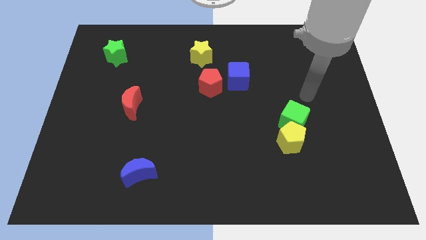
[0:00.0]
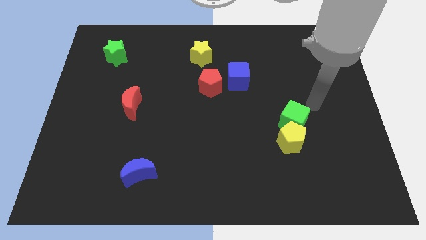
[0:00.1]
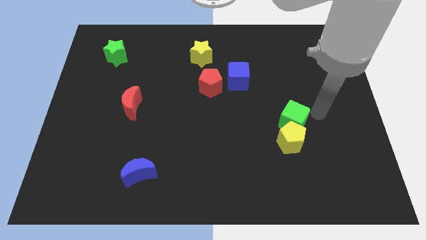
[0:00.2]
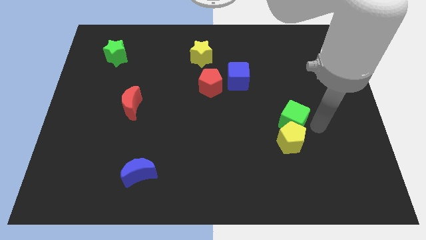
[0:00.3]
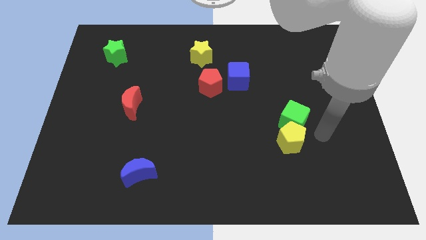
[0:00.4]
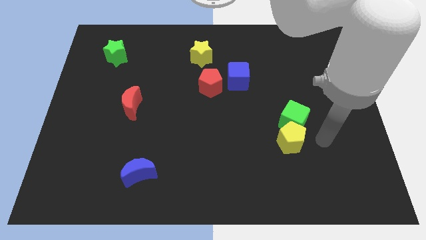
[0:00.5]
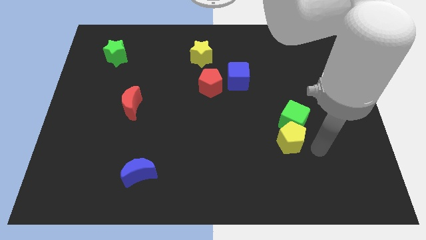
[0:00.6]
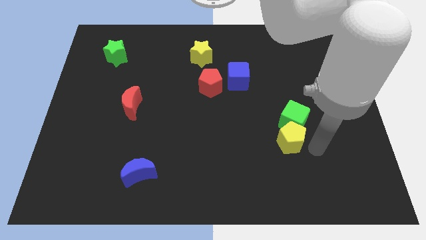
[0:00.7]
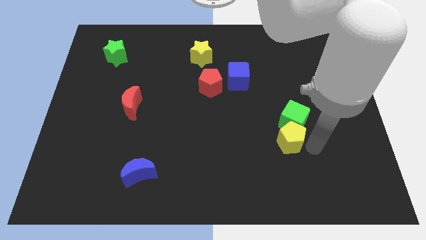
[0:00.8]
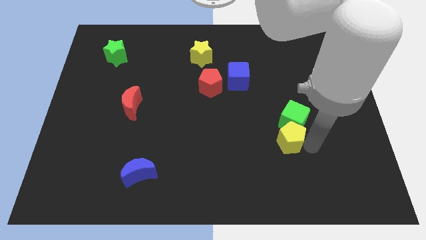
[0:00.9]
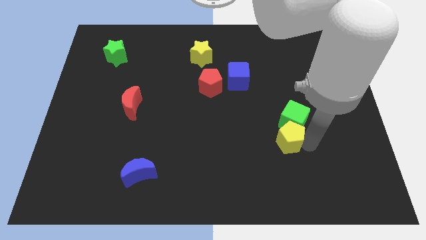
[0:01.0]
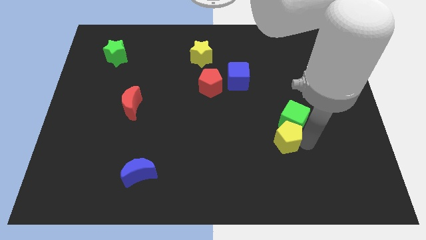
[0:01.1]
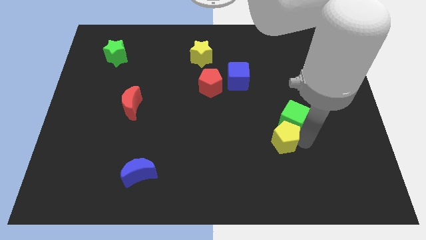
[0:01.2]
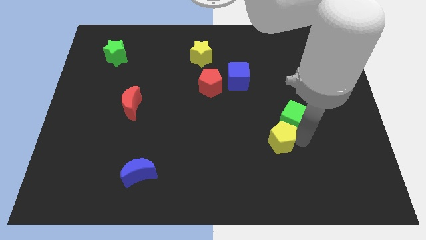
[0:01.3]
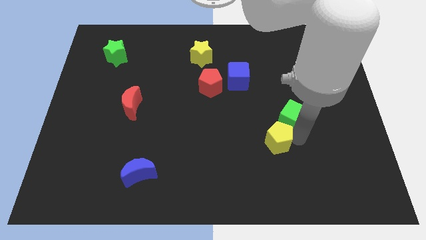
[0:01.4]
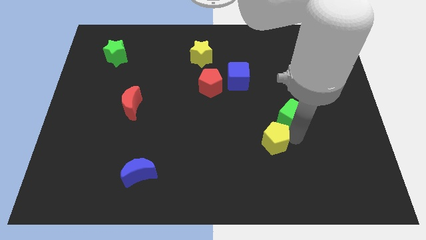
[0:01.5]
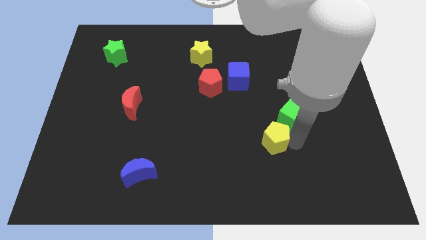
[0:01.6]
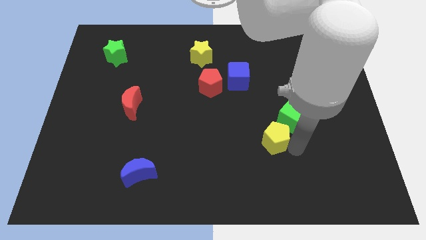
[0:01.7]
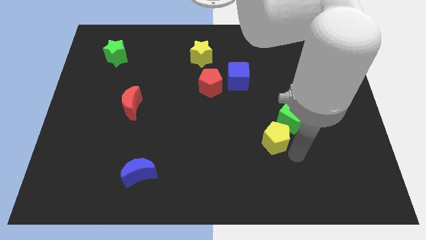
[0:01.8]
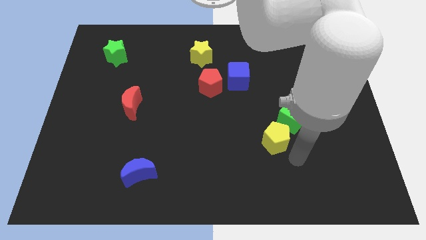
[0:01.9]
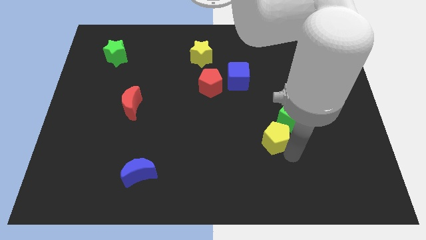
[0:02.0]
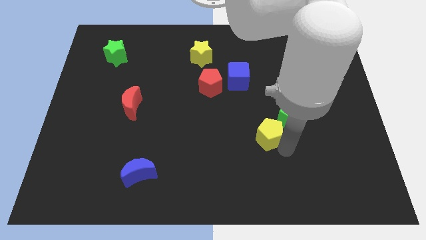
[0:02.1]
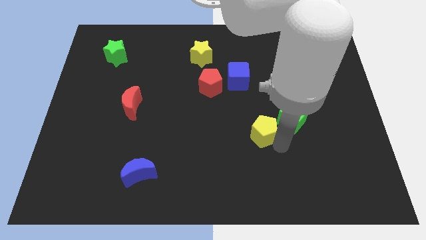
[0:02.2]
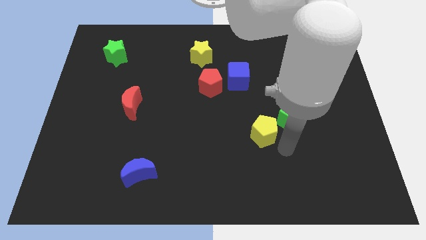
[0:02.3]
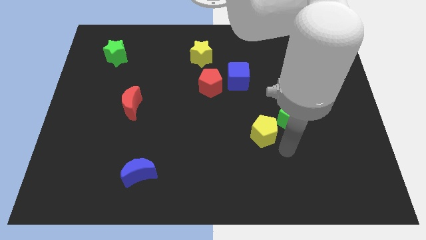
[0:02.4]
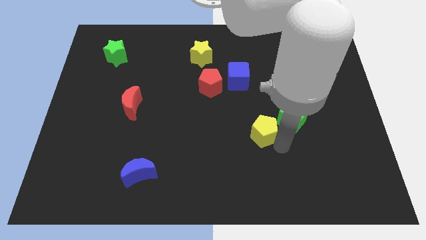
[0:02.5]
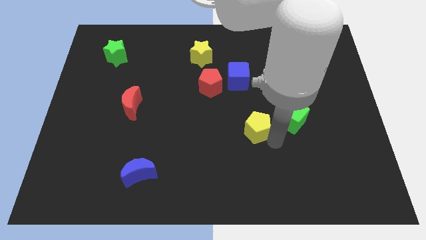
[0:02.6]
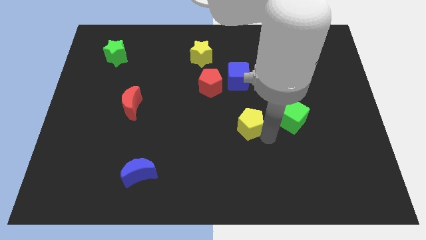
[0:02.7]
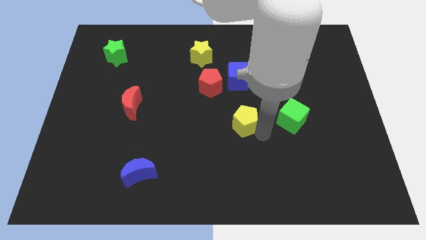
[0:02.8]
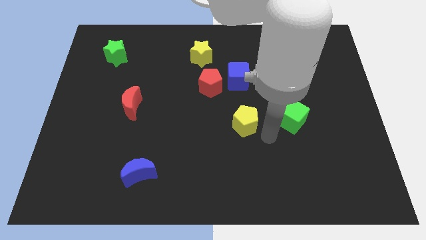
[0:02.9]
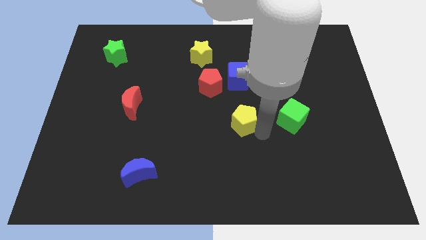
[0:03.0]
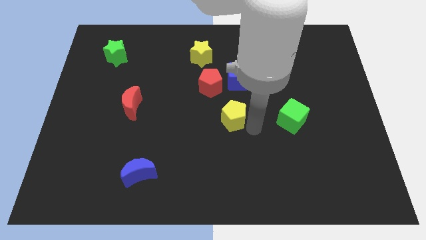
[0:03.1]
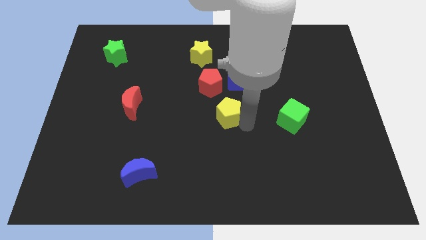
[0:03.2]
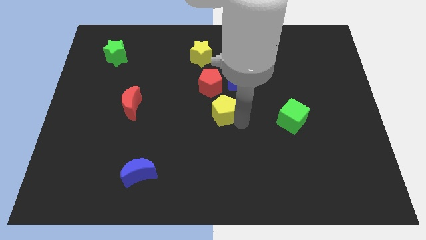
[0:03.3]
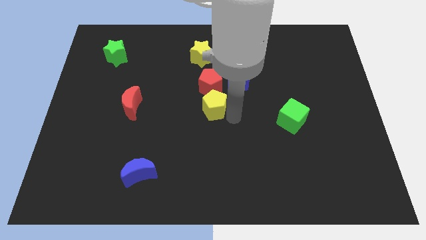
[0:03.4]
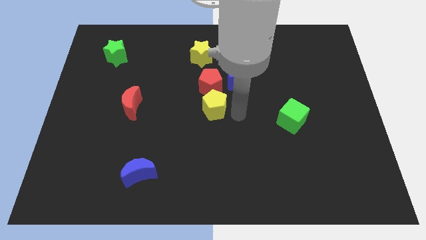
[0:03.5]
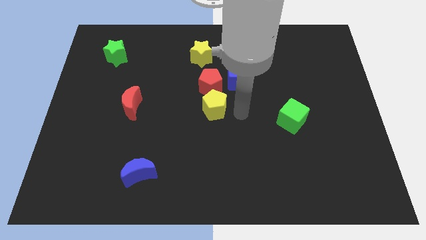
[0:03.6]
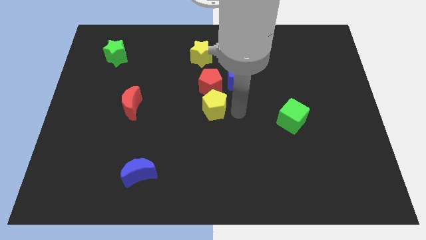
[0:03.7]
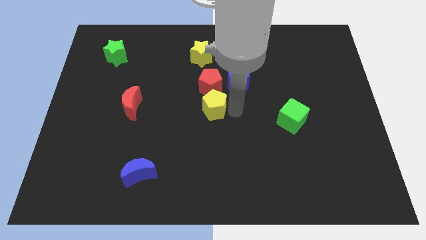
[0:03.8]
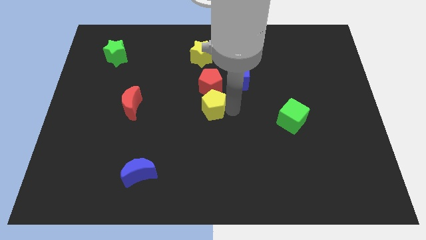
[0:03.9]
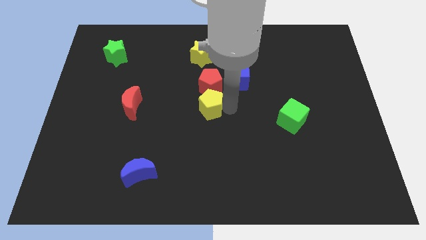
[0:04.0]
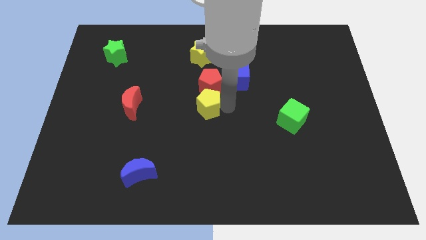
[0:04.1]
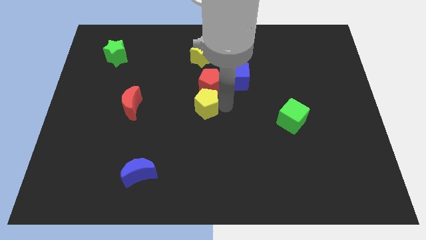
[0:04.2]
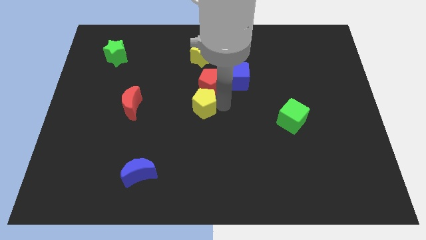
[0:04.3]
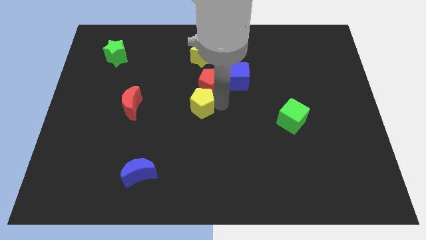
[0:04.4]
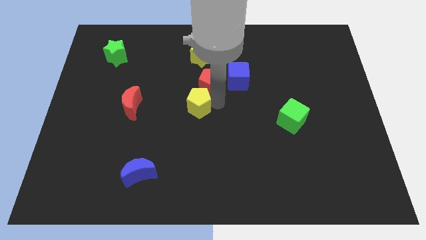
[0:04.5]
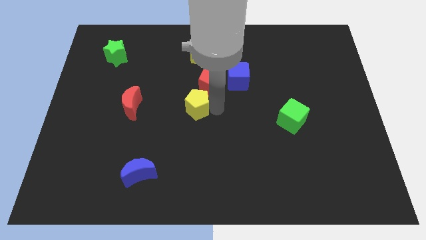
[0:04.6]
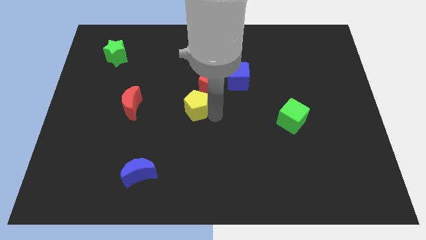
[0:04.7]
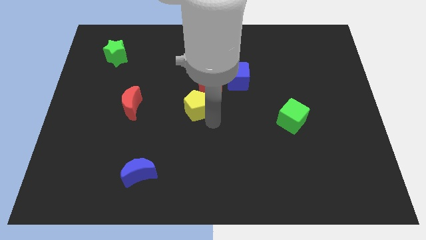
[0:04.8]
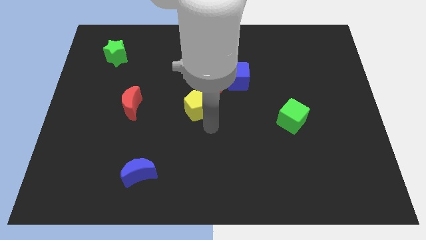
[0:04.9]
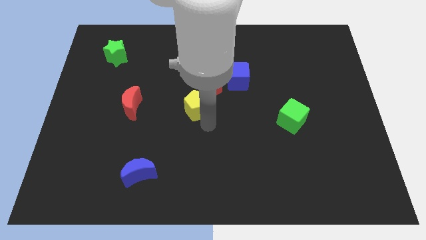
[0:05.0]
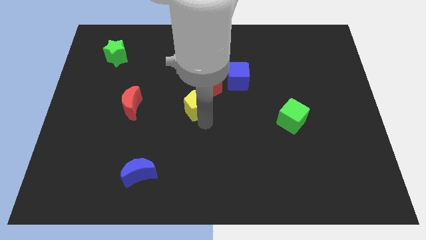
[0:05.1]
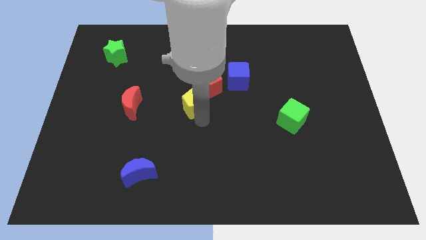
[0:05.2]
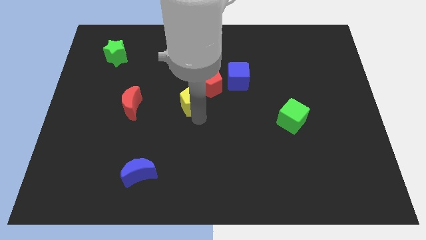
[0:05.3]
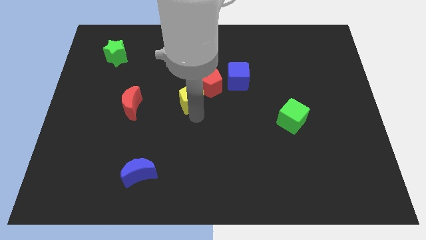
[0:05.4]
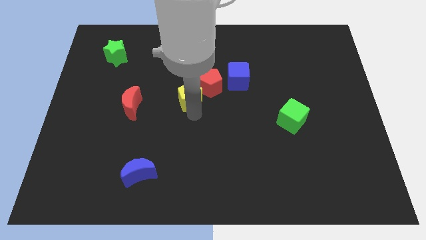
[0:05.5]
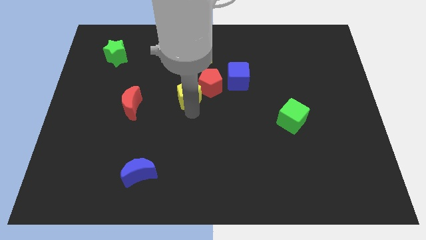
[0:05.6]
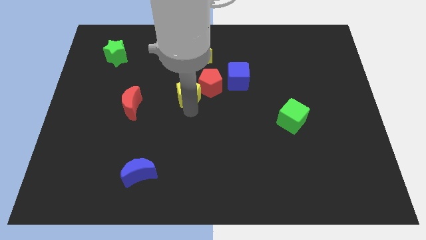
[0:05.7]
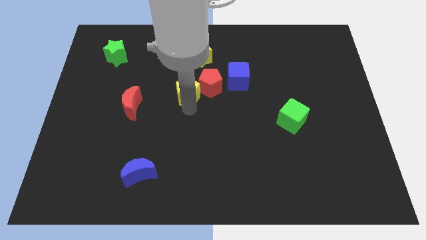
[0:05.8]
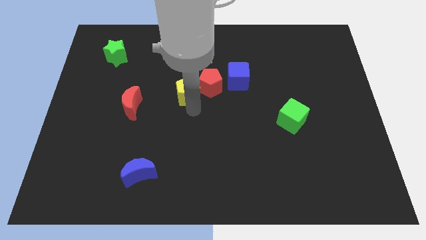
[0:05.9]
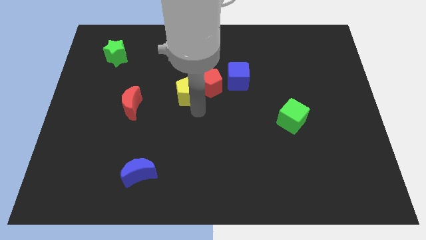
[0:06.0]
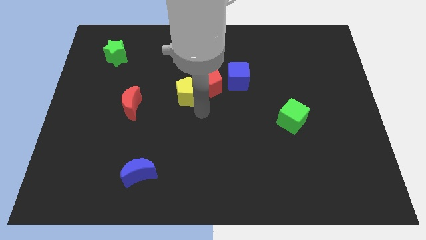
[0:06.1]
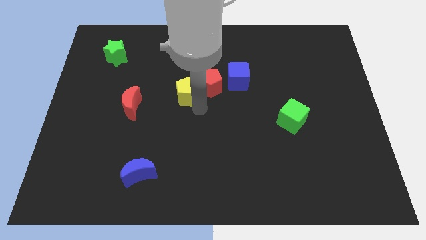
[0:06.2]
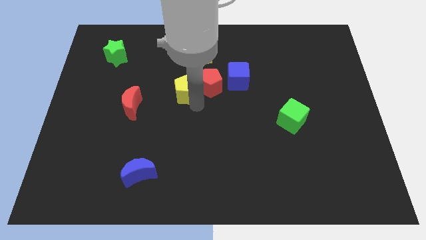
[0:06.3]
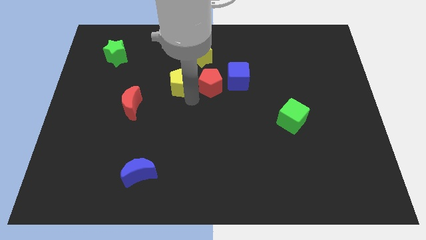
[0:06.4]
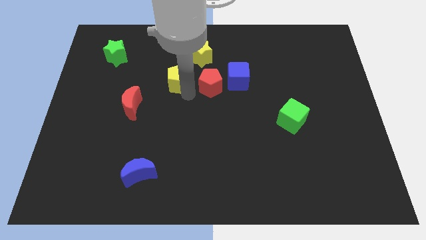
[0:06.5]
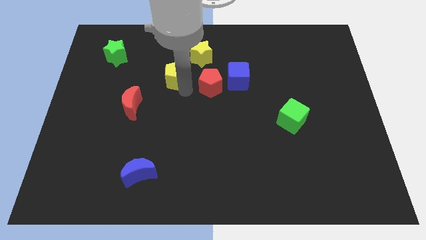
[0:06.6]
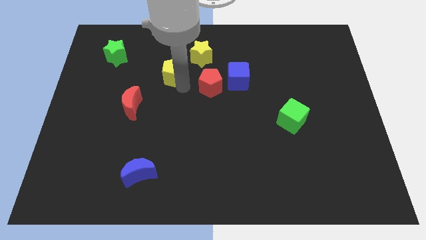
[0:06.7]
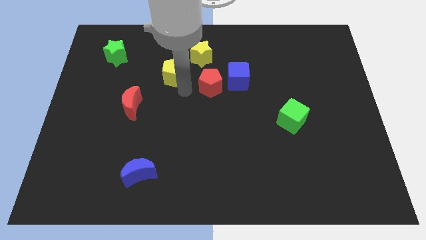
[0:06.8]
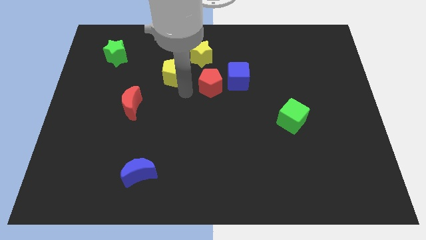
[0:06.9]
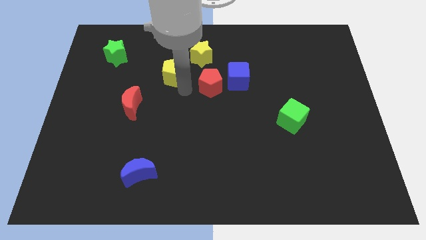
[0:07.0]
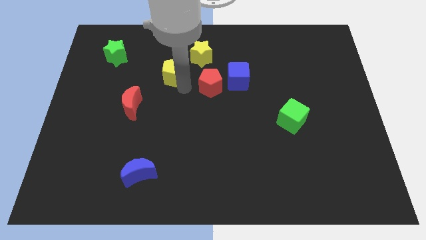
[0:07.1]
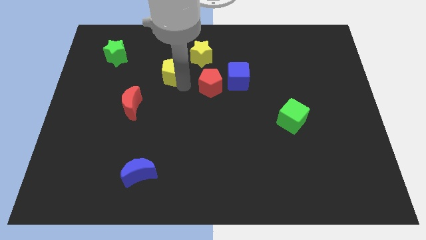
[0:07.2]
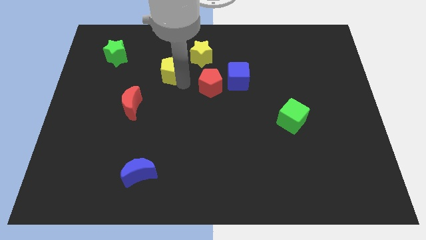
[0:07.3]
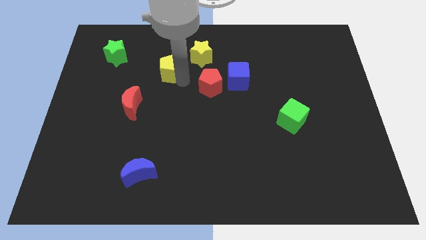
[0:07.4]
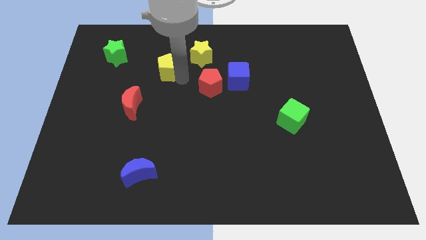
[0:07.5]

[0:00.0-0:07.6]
move the yellow pentagon to the left of the yellow star
